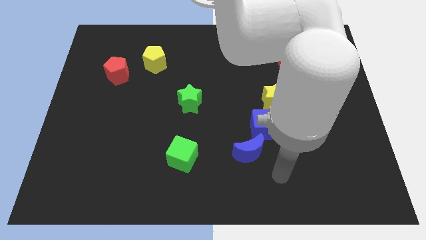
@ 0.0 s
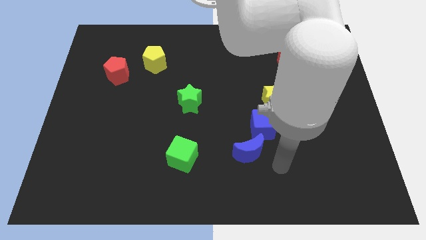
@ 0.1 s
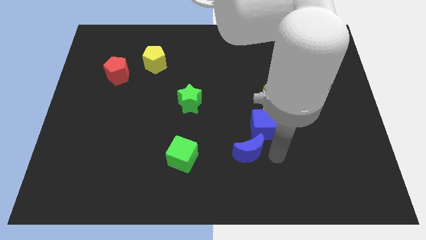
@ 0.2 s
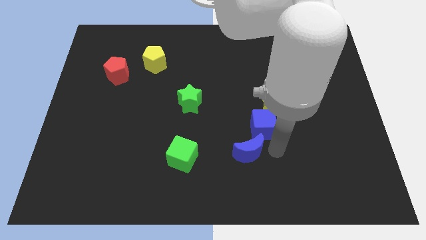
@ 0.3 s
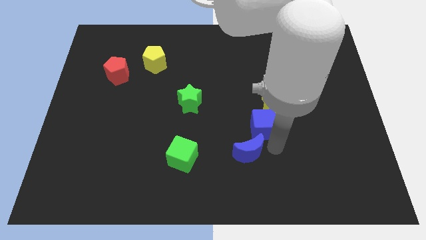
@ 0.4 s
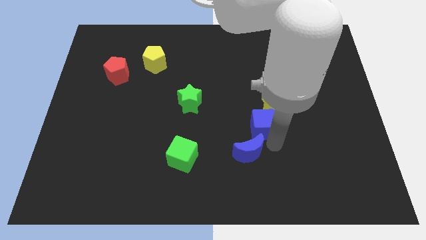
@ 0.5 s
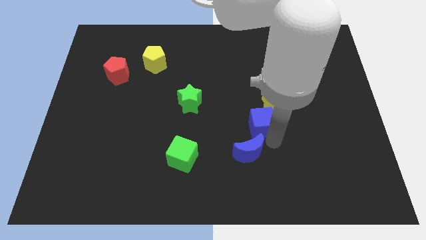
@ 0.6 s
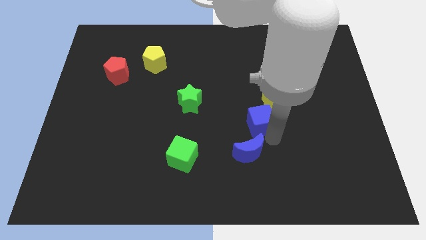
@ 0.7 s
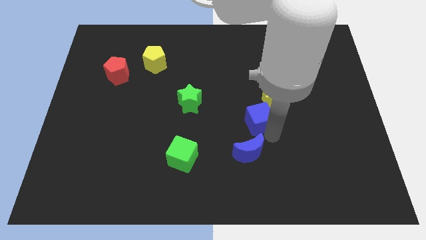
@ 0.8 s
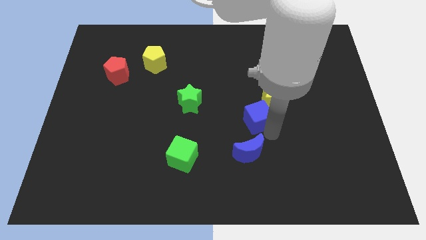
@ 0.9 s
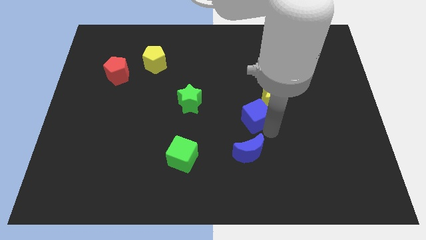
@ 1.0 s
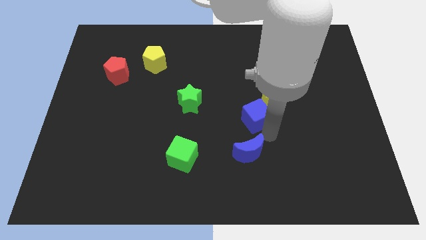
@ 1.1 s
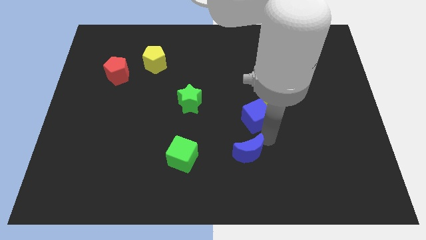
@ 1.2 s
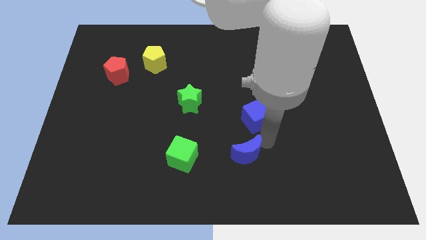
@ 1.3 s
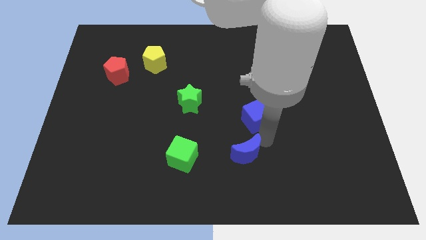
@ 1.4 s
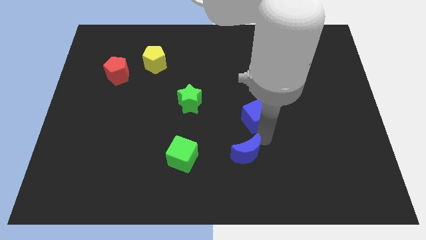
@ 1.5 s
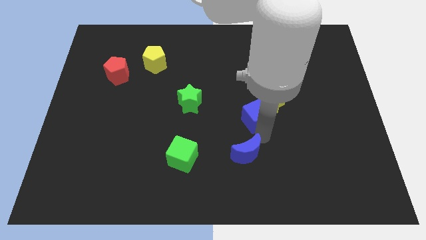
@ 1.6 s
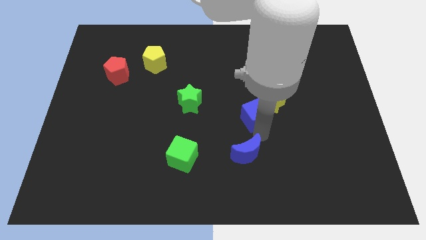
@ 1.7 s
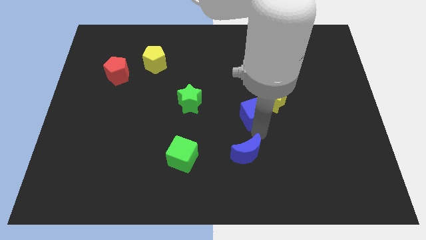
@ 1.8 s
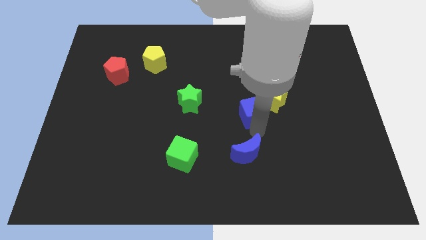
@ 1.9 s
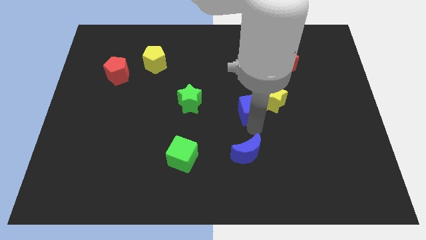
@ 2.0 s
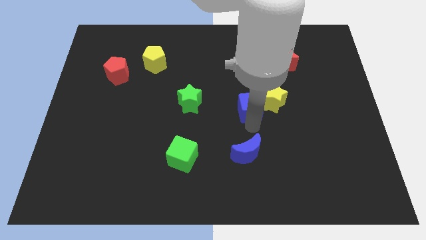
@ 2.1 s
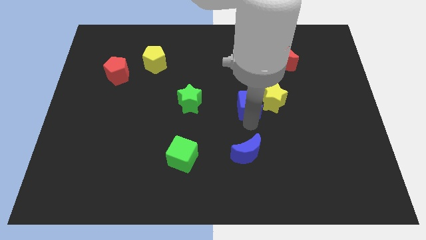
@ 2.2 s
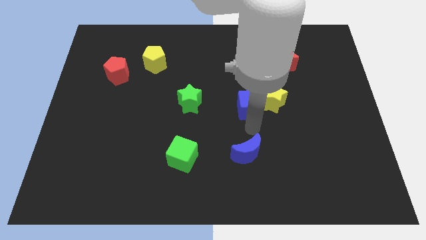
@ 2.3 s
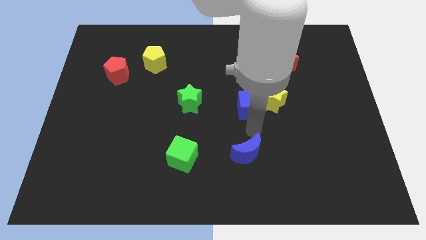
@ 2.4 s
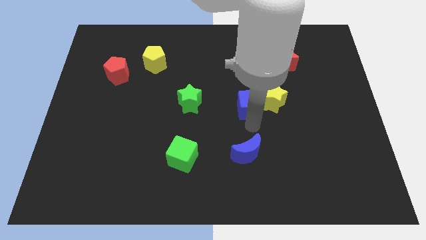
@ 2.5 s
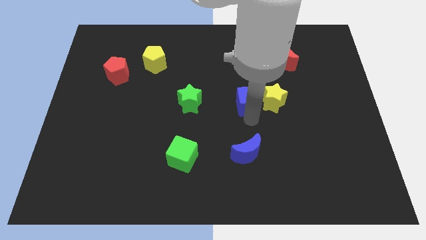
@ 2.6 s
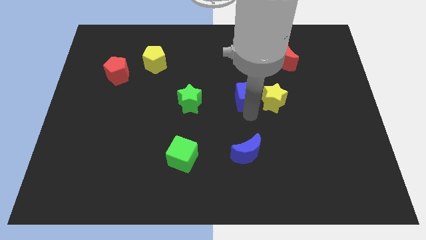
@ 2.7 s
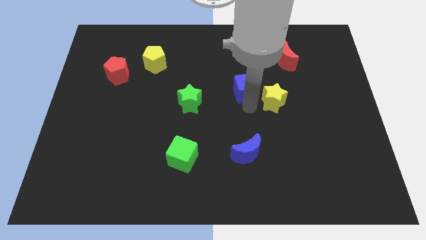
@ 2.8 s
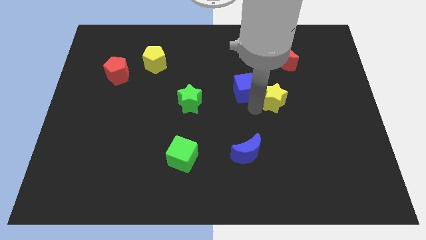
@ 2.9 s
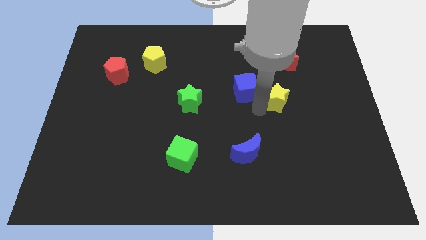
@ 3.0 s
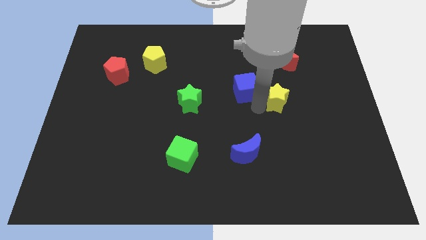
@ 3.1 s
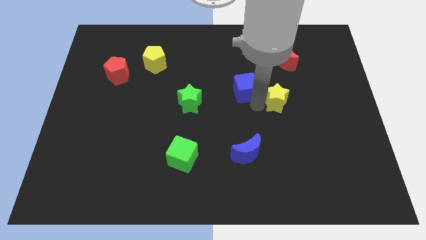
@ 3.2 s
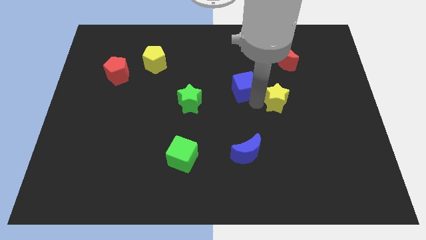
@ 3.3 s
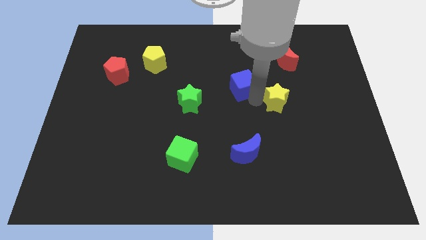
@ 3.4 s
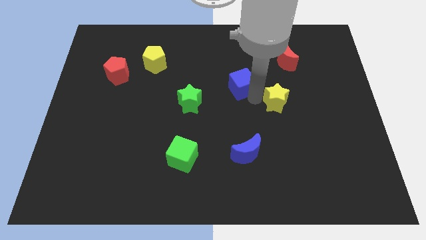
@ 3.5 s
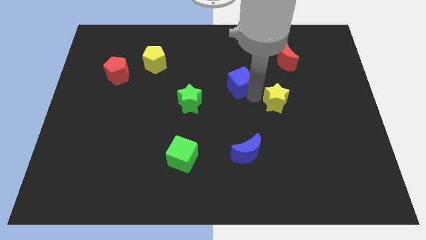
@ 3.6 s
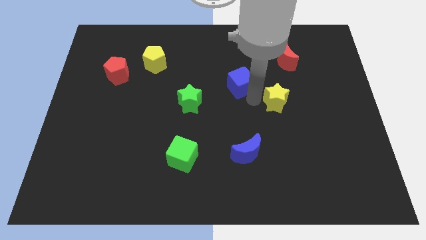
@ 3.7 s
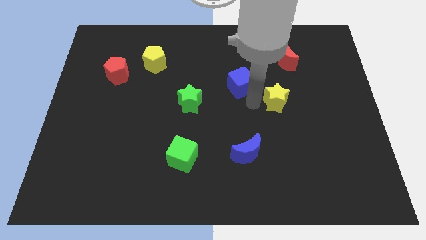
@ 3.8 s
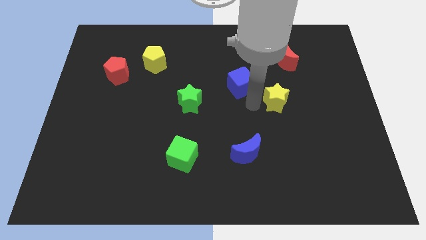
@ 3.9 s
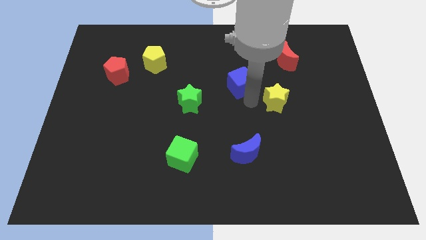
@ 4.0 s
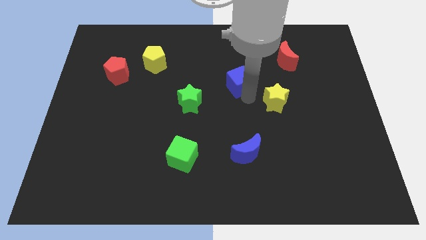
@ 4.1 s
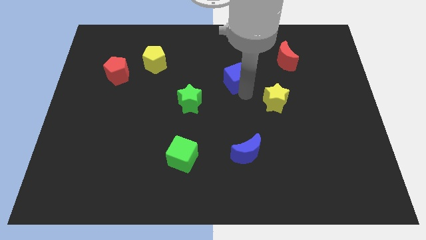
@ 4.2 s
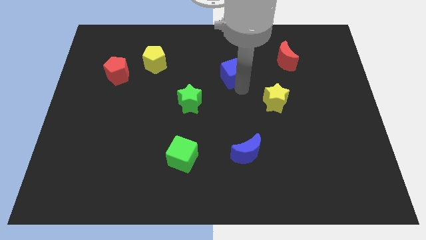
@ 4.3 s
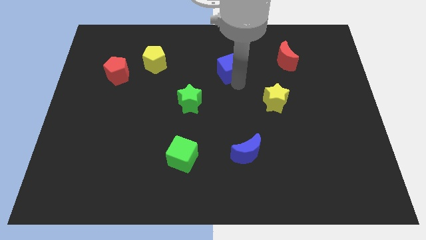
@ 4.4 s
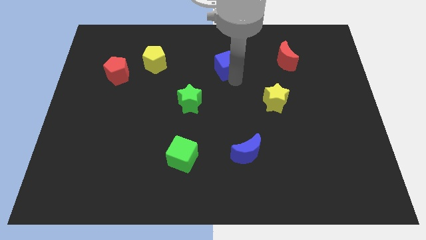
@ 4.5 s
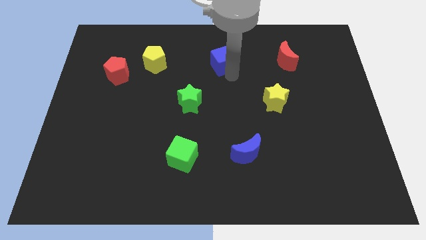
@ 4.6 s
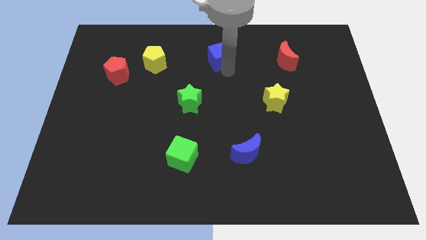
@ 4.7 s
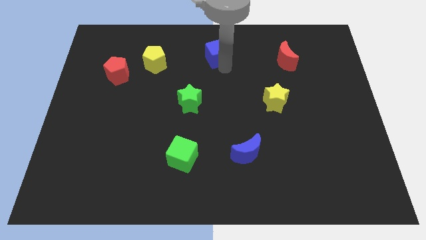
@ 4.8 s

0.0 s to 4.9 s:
slide the blue cube to the top side

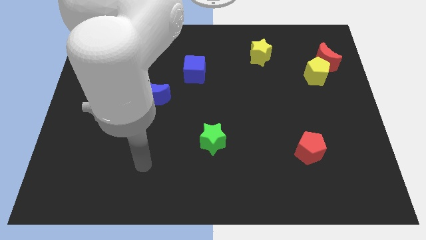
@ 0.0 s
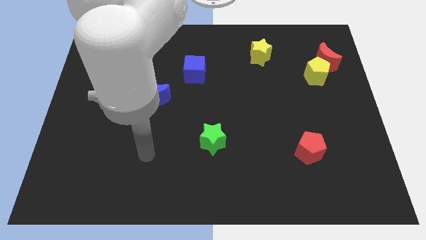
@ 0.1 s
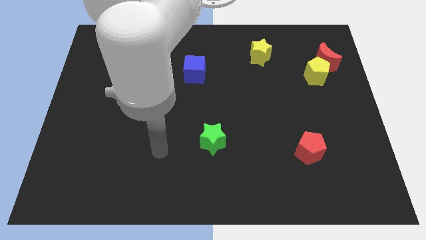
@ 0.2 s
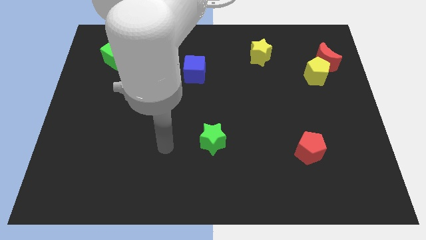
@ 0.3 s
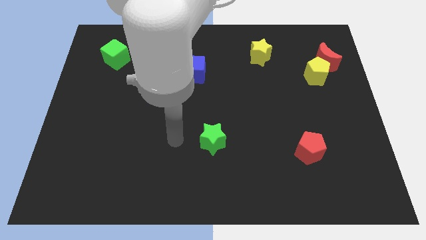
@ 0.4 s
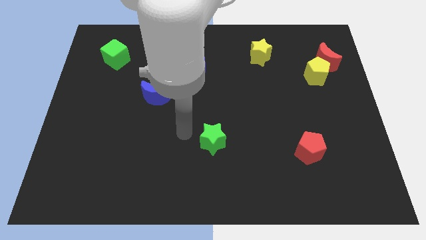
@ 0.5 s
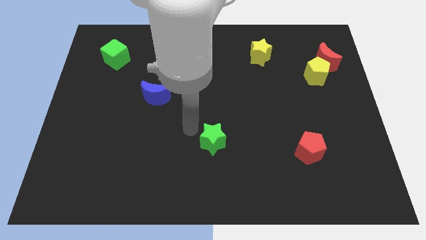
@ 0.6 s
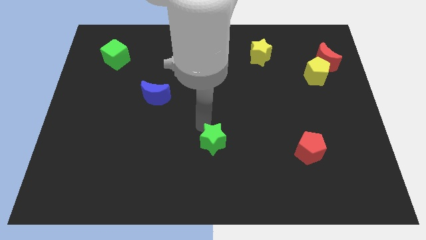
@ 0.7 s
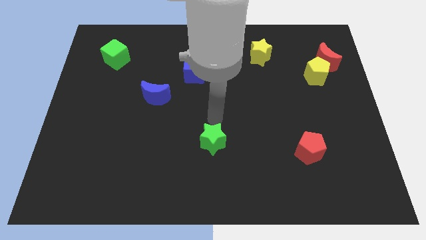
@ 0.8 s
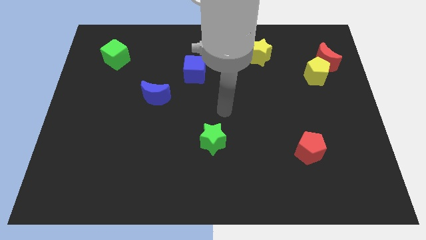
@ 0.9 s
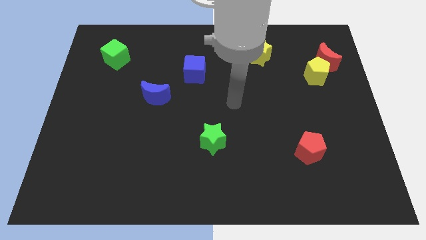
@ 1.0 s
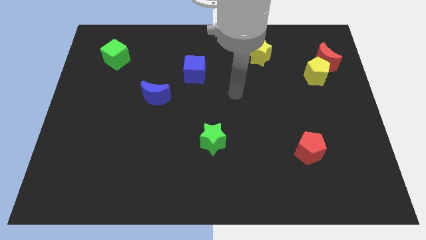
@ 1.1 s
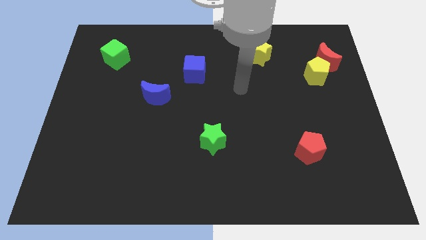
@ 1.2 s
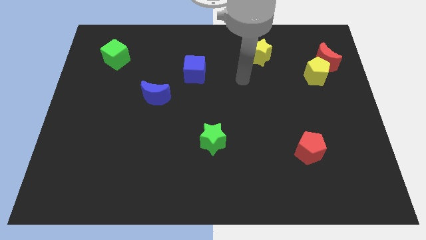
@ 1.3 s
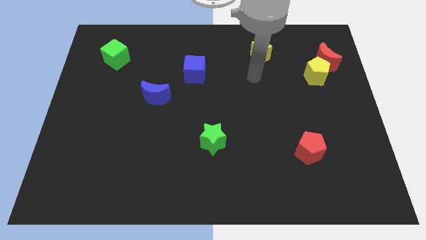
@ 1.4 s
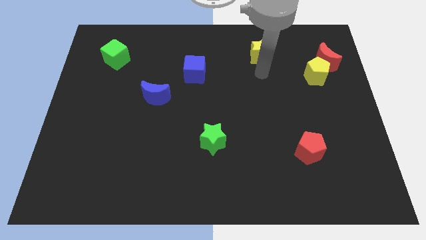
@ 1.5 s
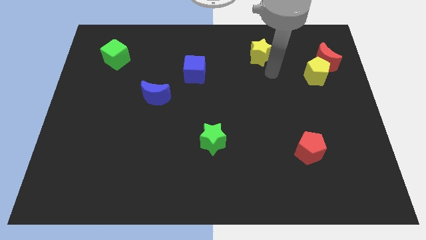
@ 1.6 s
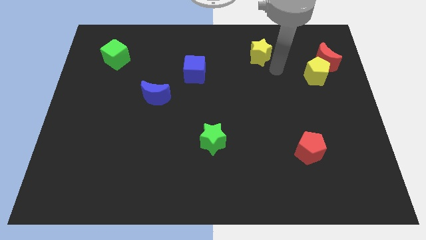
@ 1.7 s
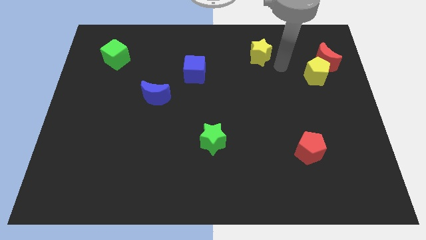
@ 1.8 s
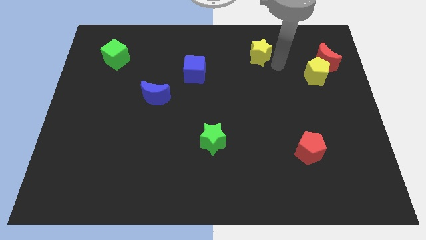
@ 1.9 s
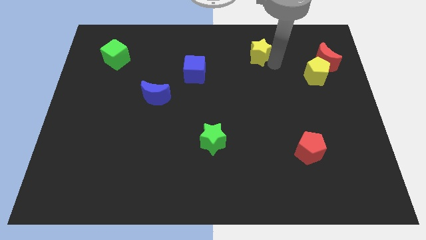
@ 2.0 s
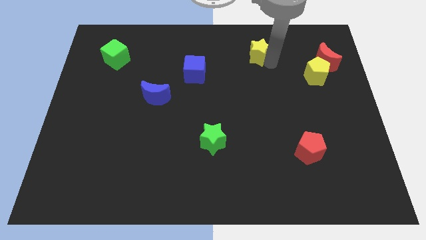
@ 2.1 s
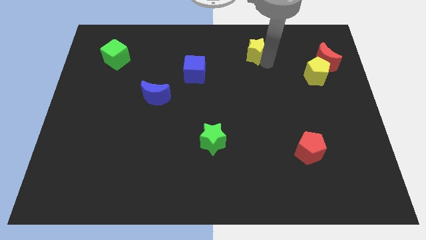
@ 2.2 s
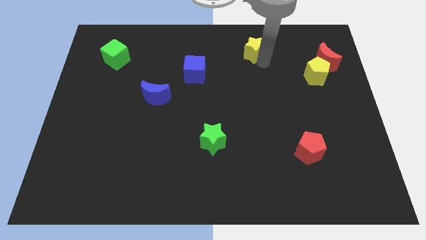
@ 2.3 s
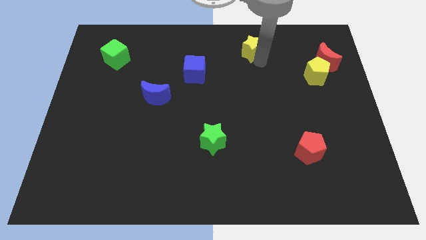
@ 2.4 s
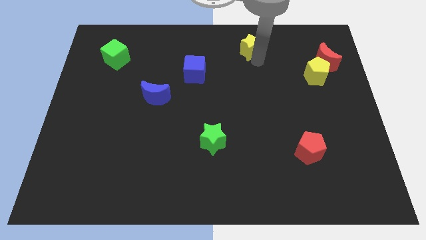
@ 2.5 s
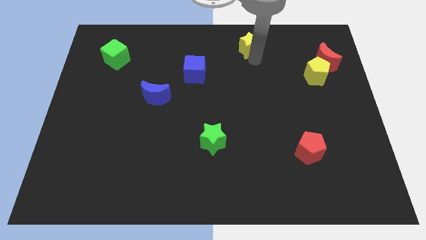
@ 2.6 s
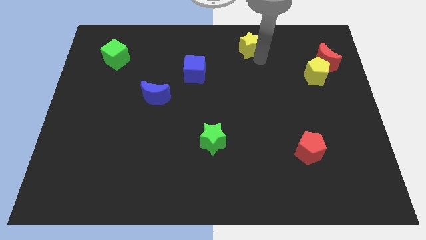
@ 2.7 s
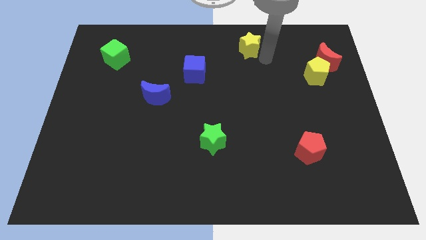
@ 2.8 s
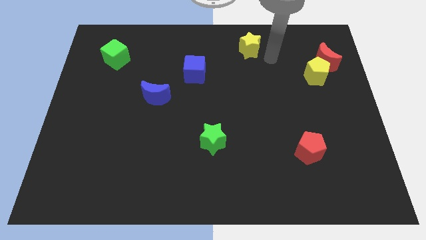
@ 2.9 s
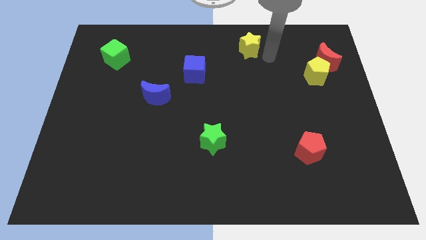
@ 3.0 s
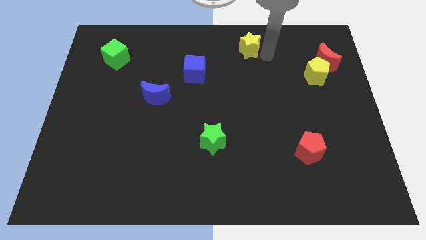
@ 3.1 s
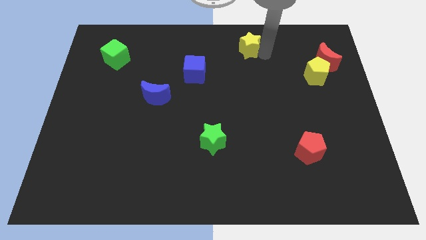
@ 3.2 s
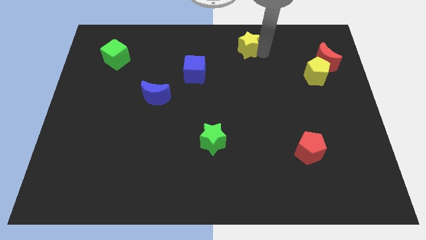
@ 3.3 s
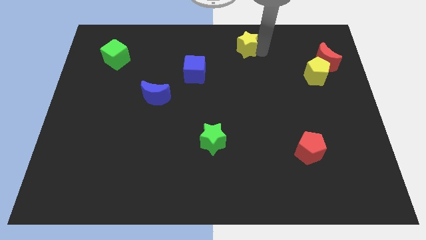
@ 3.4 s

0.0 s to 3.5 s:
push the yellow star to the top side
